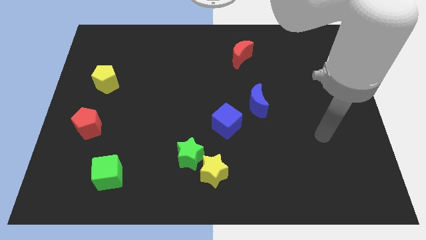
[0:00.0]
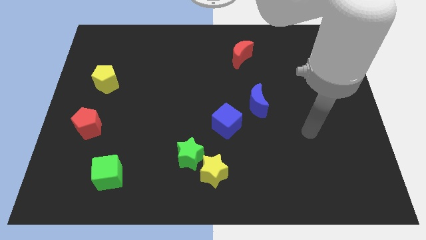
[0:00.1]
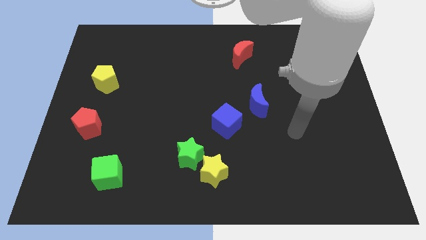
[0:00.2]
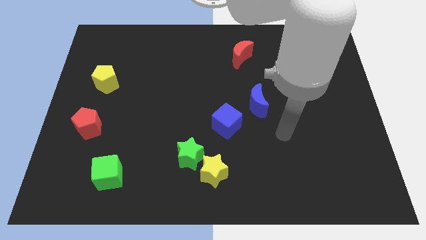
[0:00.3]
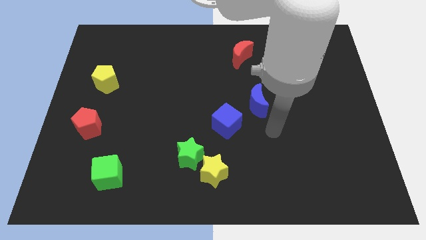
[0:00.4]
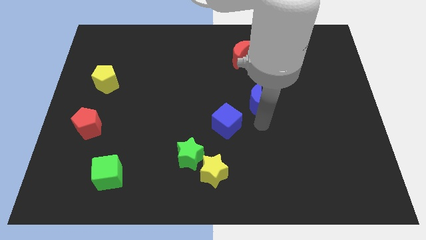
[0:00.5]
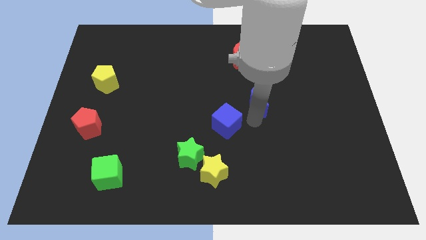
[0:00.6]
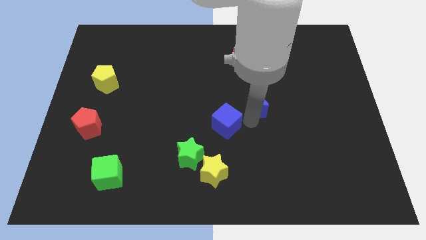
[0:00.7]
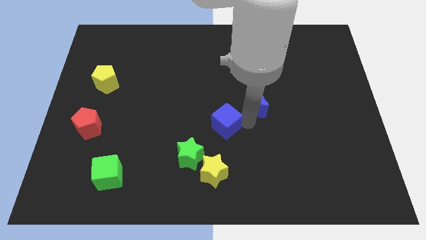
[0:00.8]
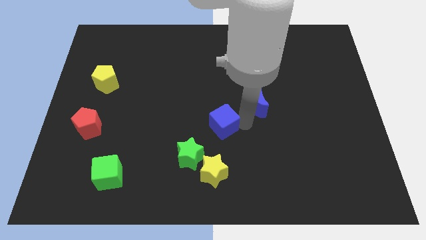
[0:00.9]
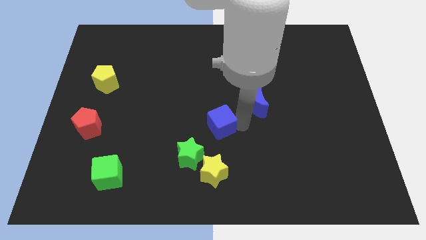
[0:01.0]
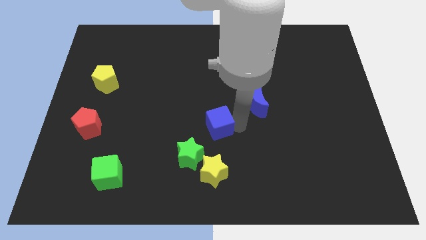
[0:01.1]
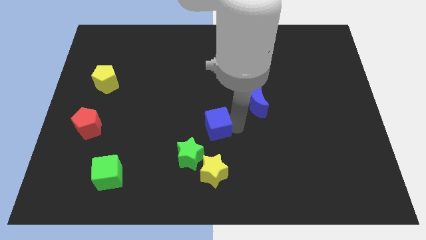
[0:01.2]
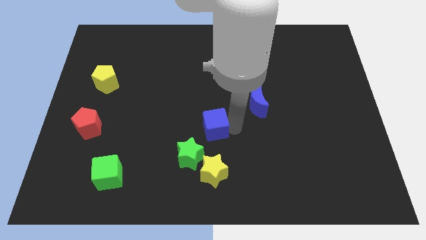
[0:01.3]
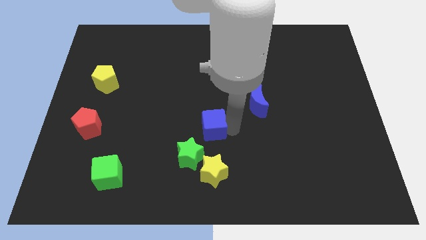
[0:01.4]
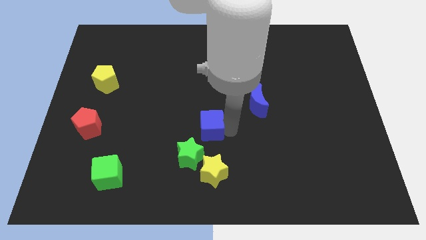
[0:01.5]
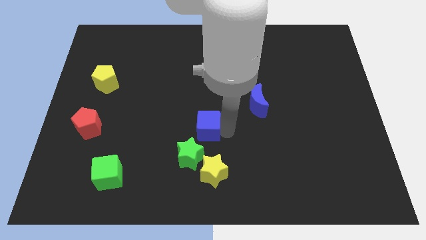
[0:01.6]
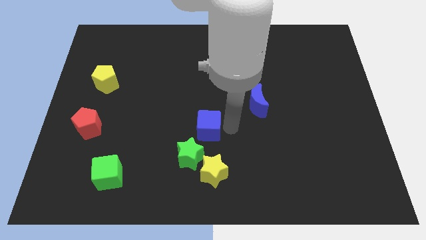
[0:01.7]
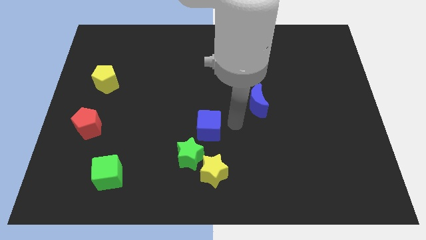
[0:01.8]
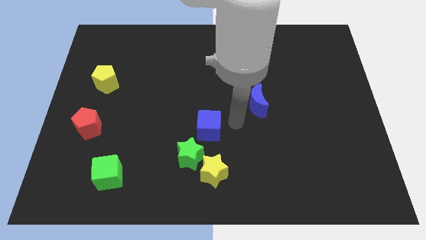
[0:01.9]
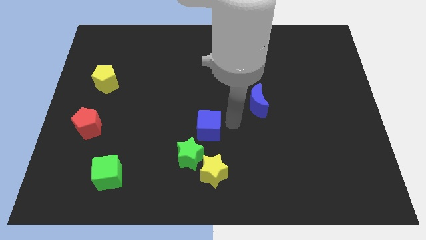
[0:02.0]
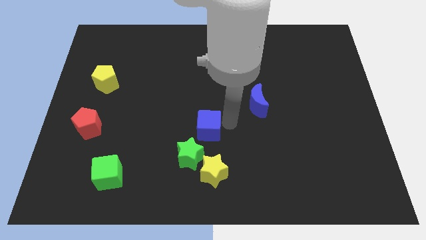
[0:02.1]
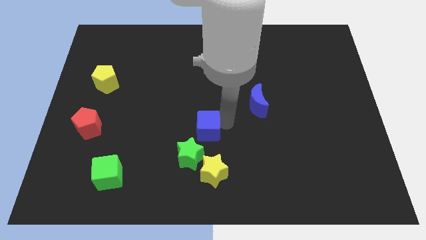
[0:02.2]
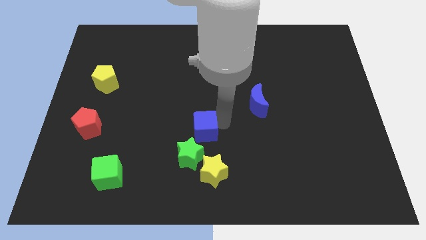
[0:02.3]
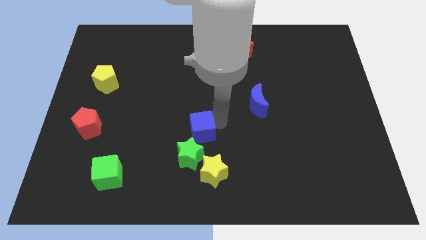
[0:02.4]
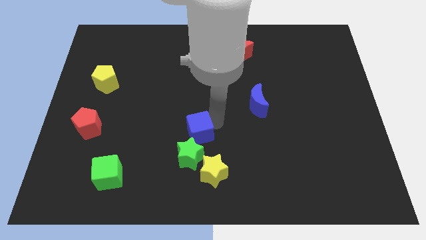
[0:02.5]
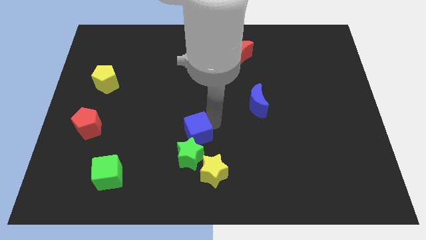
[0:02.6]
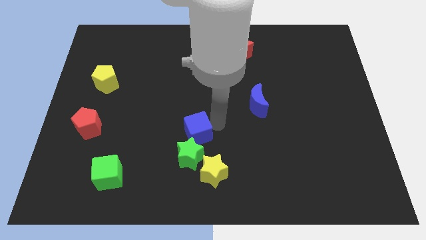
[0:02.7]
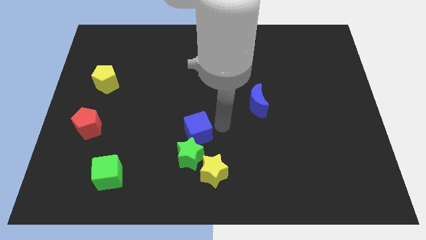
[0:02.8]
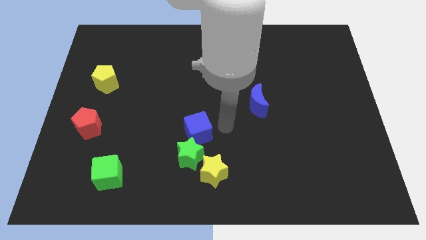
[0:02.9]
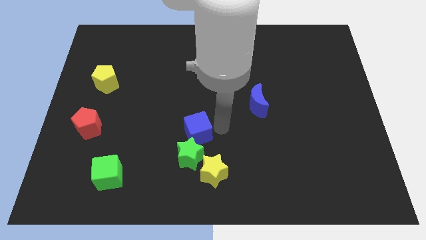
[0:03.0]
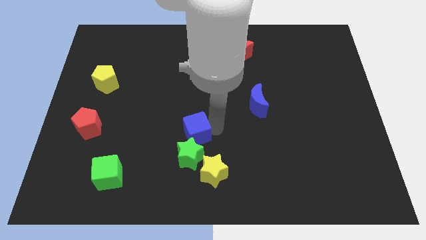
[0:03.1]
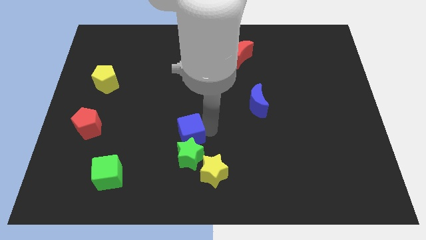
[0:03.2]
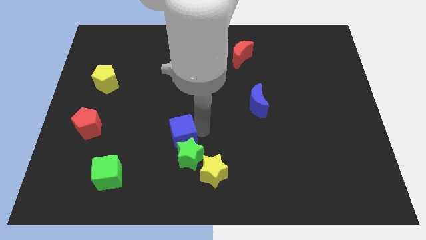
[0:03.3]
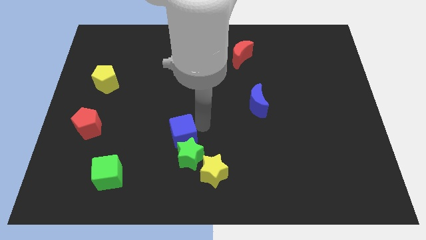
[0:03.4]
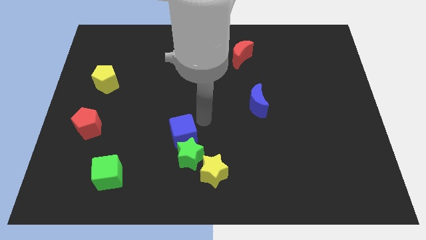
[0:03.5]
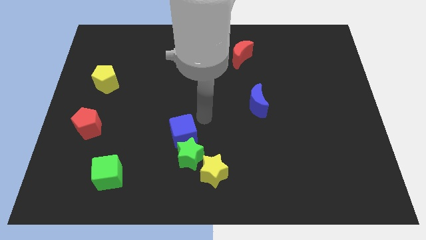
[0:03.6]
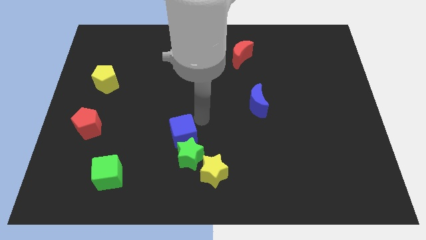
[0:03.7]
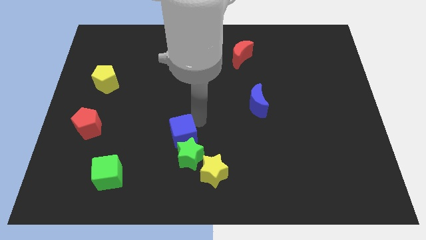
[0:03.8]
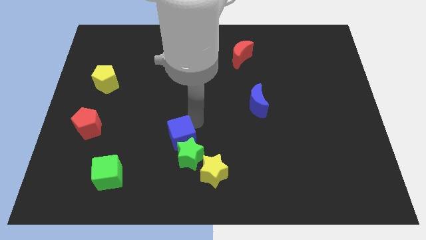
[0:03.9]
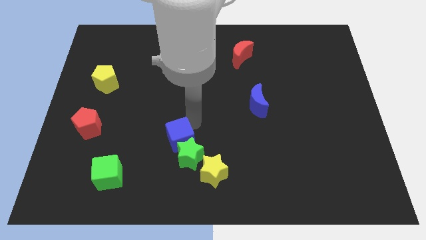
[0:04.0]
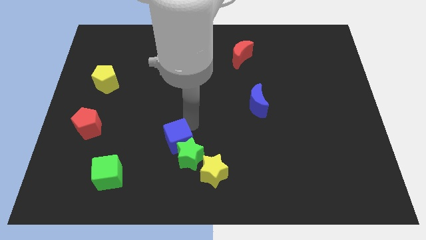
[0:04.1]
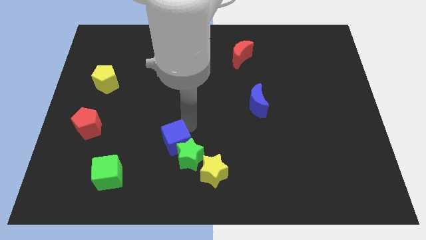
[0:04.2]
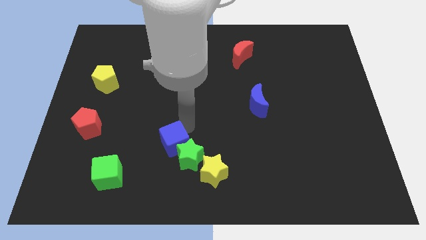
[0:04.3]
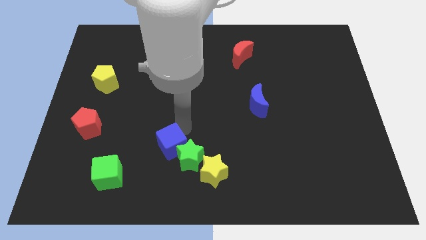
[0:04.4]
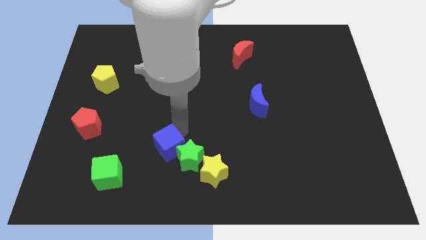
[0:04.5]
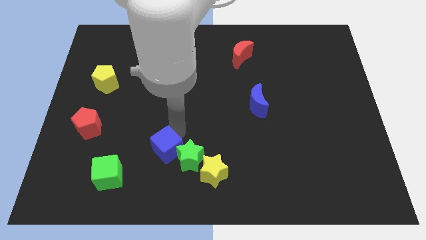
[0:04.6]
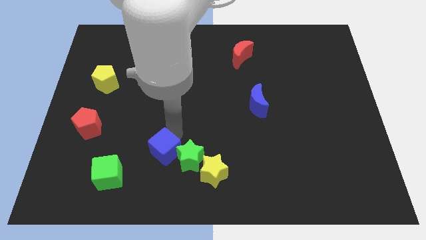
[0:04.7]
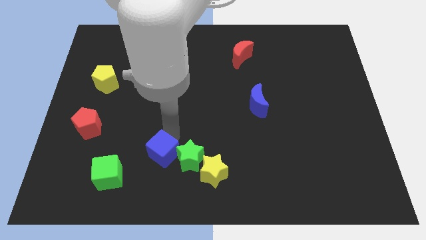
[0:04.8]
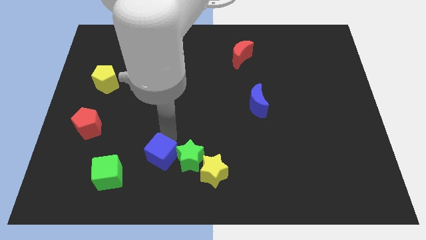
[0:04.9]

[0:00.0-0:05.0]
push the blue cube to the right of the green cube

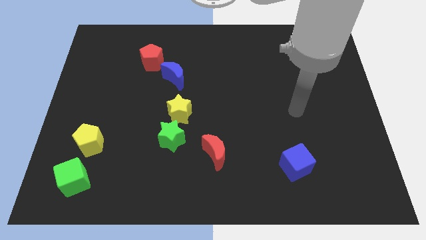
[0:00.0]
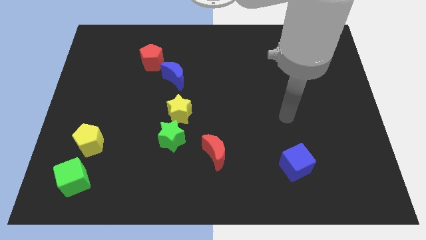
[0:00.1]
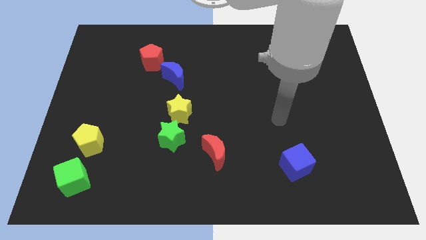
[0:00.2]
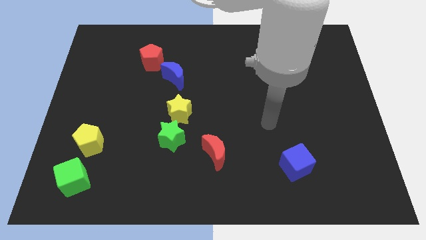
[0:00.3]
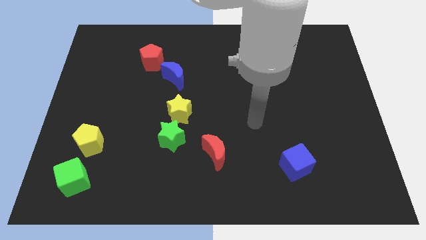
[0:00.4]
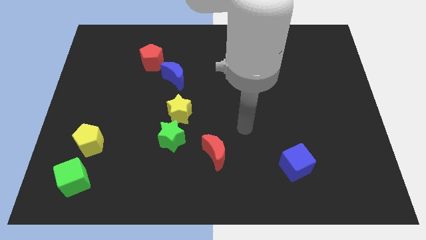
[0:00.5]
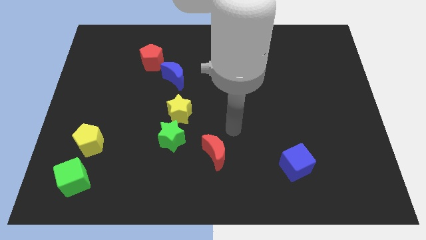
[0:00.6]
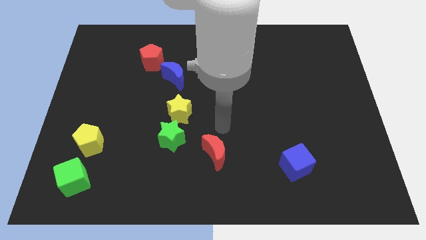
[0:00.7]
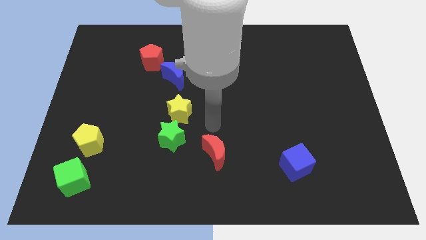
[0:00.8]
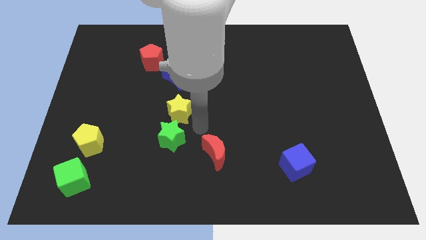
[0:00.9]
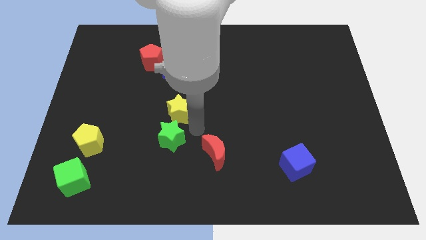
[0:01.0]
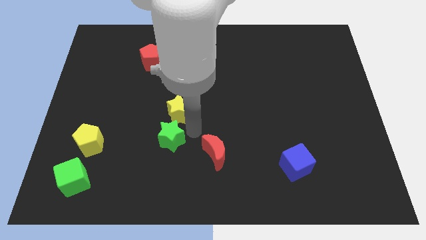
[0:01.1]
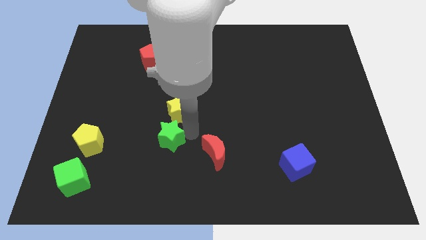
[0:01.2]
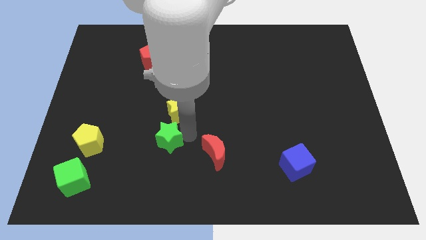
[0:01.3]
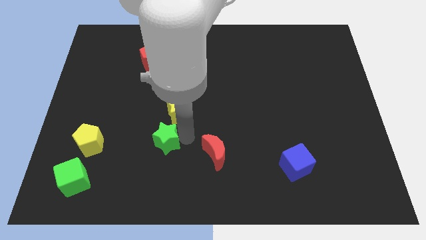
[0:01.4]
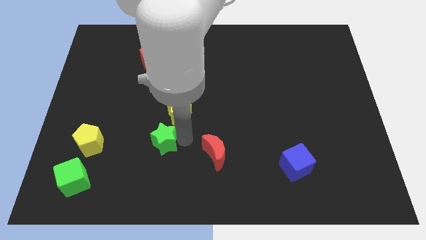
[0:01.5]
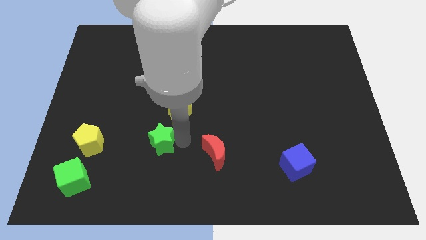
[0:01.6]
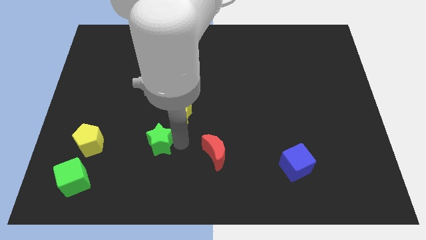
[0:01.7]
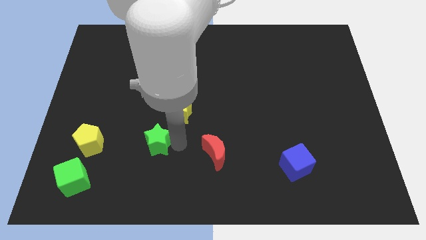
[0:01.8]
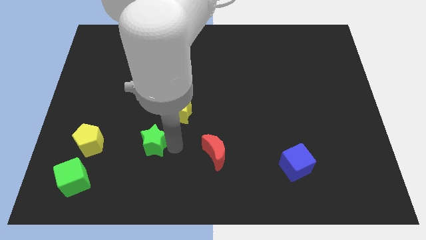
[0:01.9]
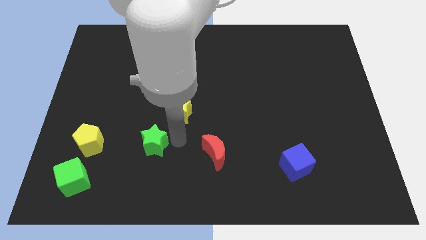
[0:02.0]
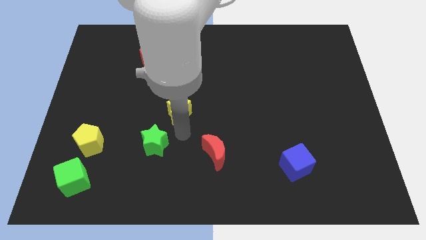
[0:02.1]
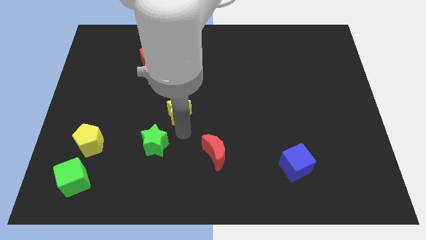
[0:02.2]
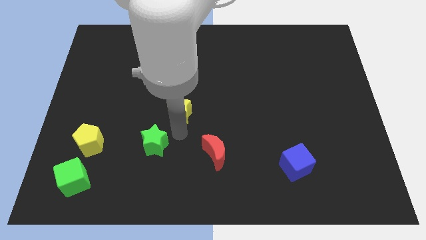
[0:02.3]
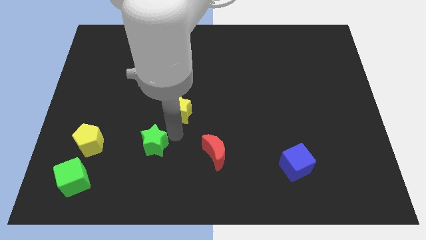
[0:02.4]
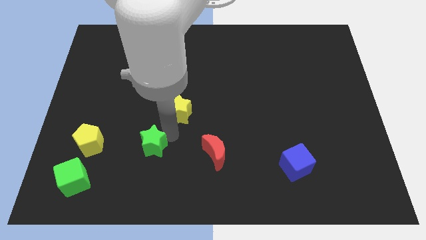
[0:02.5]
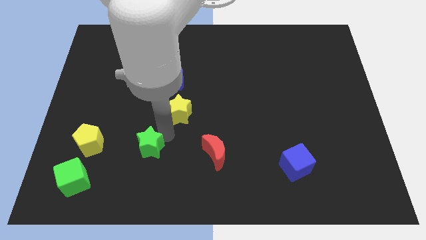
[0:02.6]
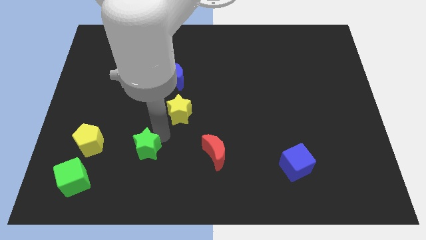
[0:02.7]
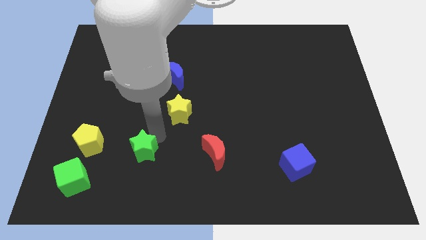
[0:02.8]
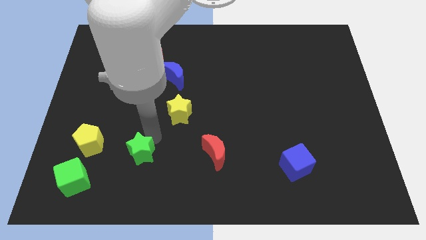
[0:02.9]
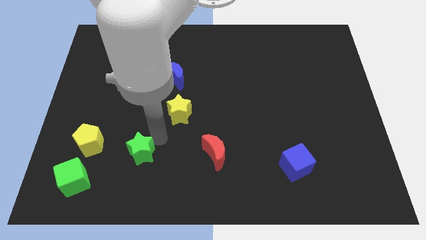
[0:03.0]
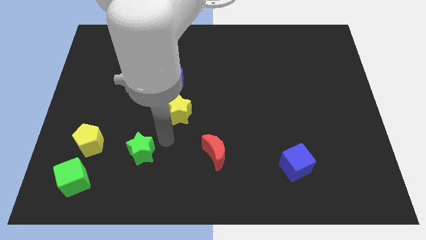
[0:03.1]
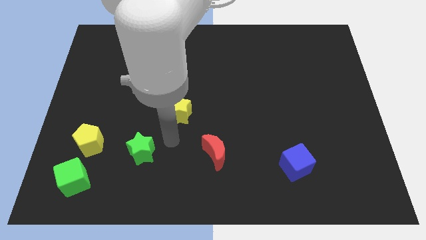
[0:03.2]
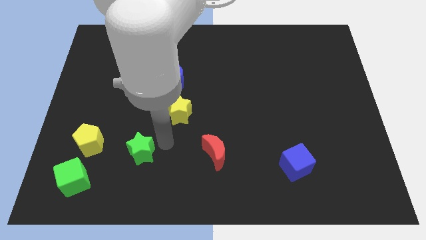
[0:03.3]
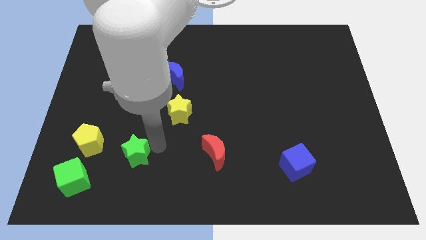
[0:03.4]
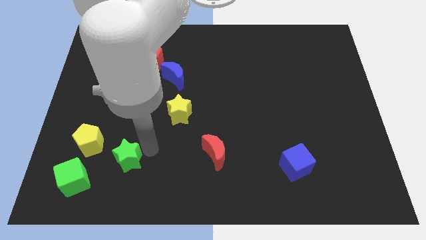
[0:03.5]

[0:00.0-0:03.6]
slide the green star diagonally down and to the right of the yellow pentagon

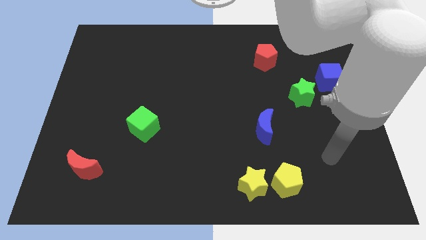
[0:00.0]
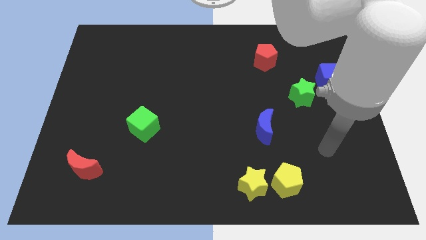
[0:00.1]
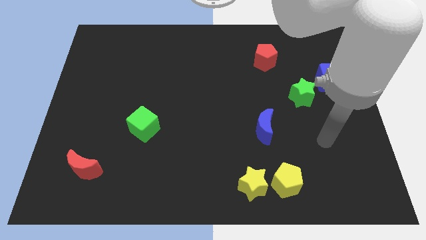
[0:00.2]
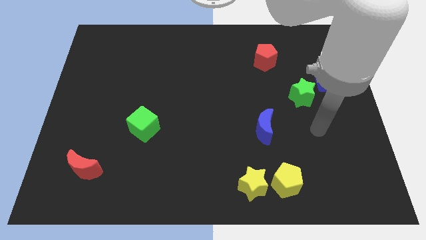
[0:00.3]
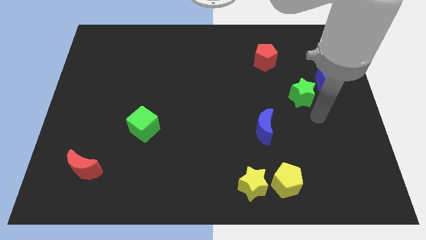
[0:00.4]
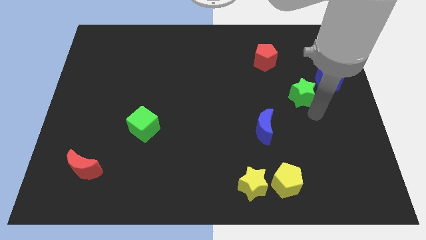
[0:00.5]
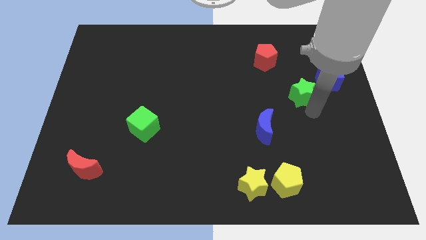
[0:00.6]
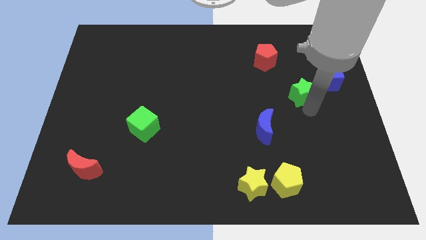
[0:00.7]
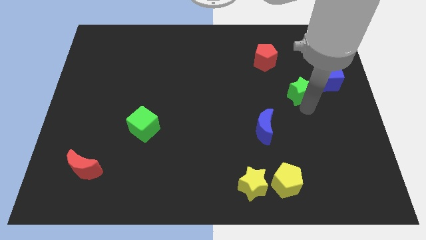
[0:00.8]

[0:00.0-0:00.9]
put the green star to the left side of the blue cube
